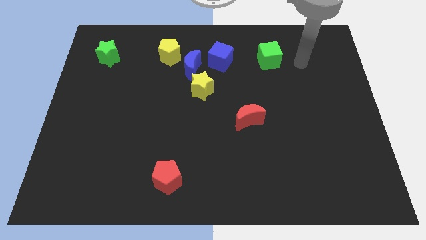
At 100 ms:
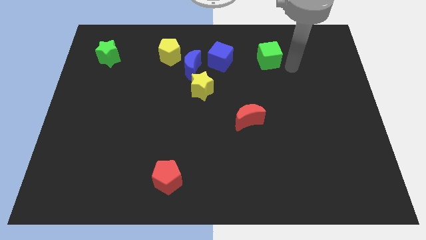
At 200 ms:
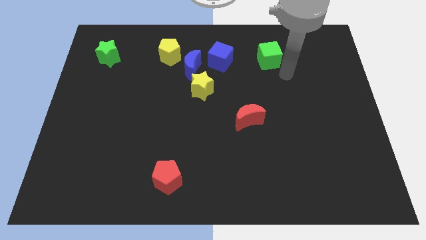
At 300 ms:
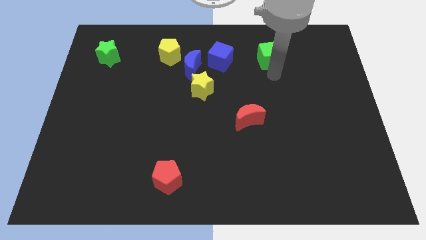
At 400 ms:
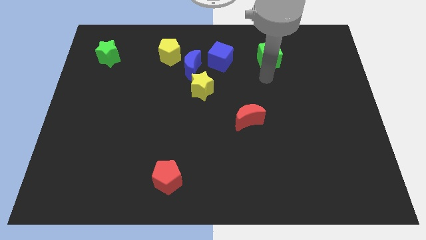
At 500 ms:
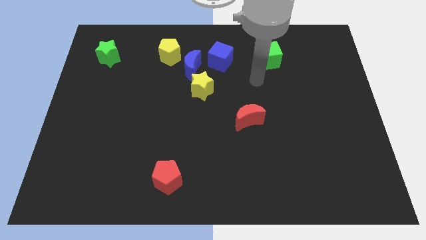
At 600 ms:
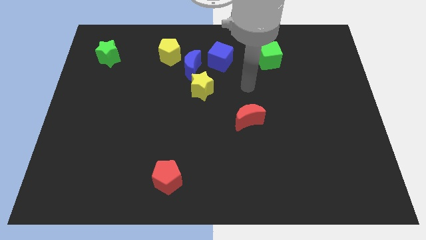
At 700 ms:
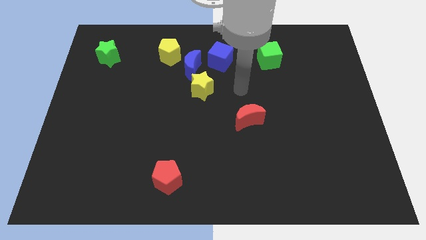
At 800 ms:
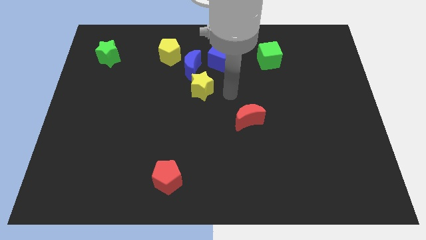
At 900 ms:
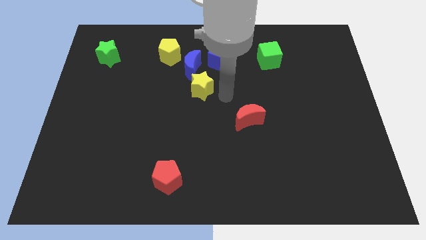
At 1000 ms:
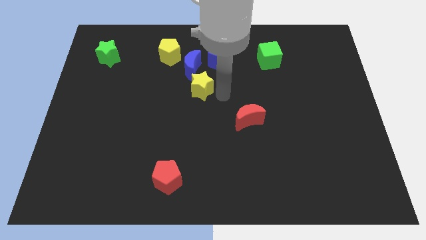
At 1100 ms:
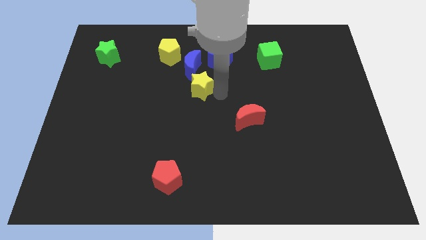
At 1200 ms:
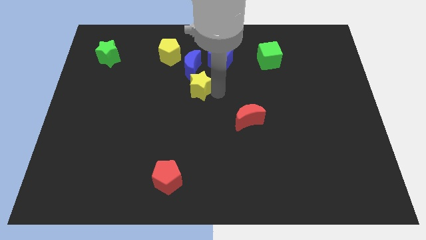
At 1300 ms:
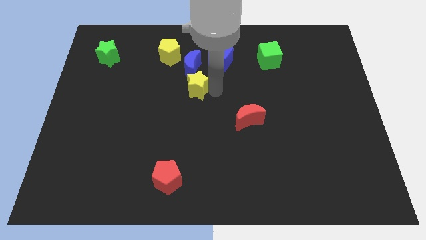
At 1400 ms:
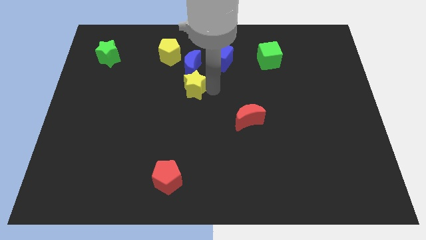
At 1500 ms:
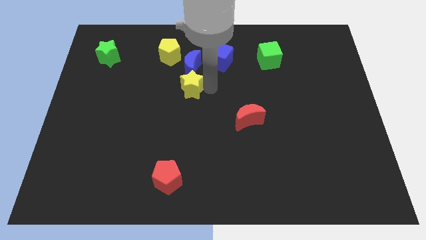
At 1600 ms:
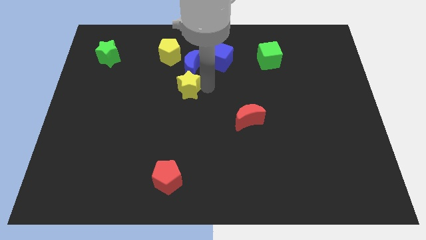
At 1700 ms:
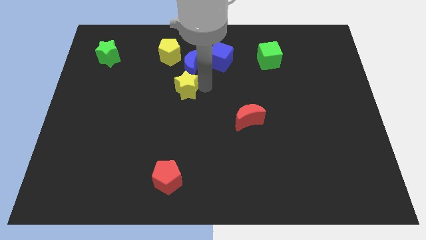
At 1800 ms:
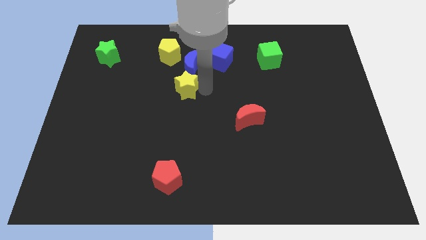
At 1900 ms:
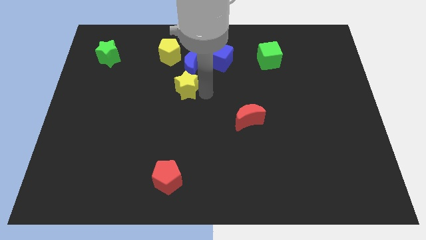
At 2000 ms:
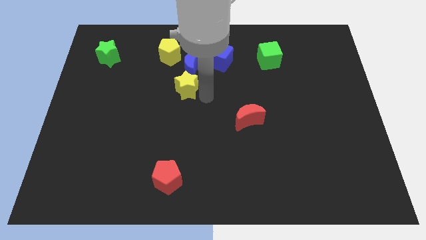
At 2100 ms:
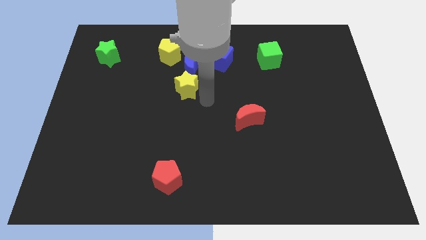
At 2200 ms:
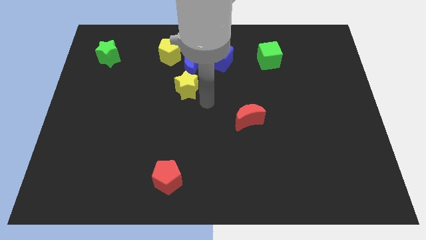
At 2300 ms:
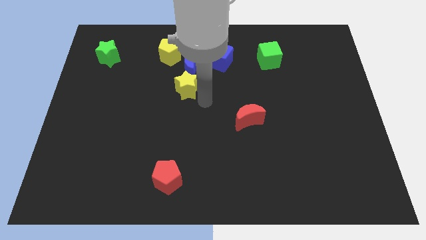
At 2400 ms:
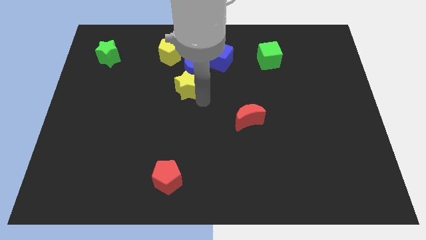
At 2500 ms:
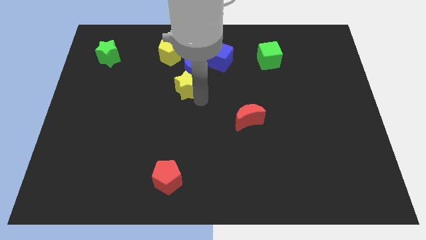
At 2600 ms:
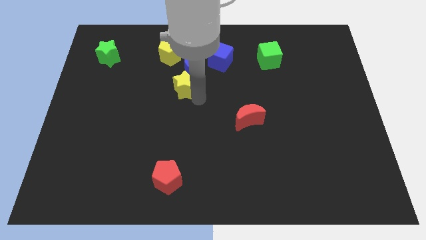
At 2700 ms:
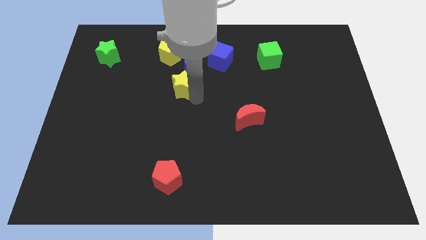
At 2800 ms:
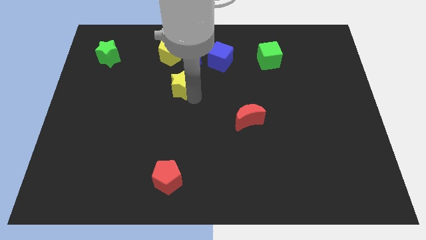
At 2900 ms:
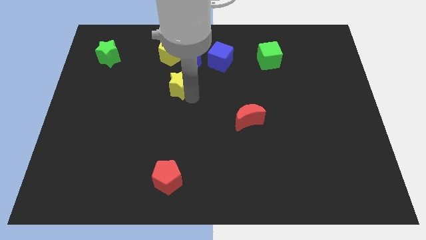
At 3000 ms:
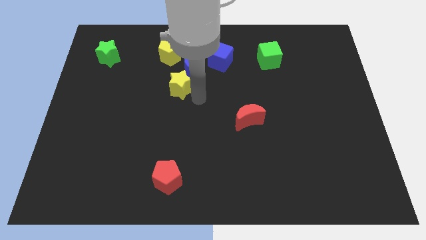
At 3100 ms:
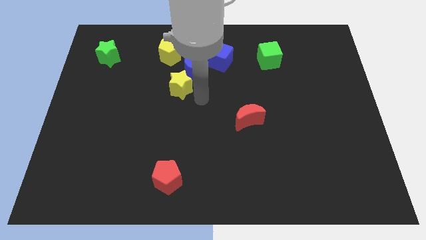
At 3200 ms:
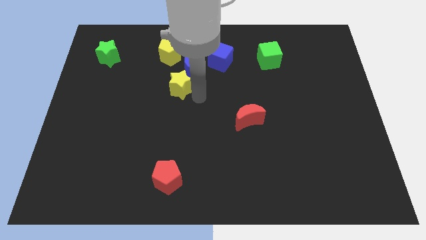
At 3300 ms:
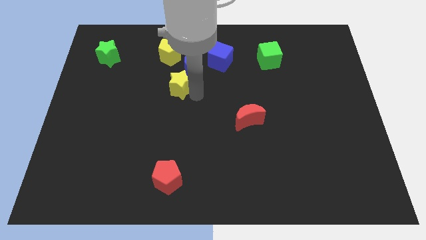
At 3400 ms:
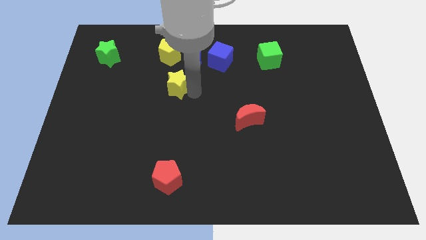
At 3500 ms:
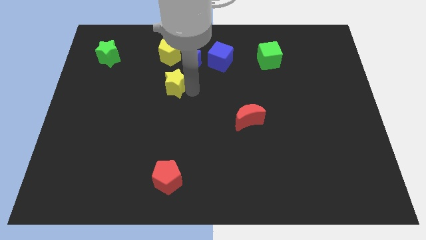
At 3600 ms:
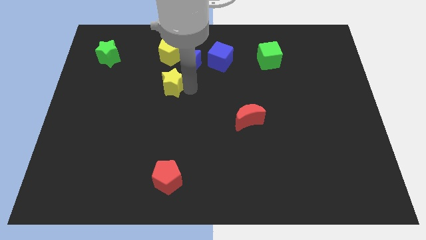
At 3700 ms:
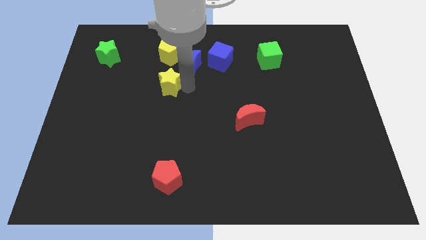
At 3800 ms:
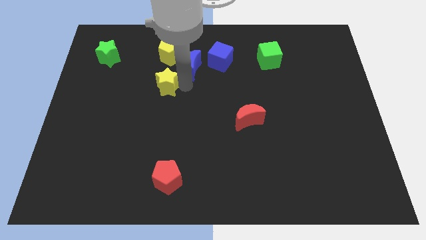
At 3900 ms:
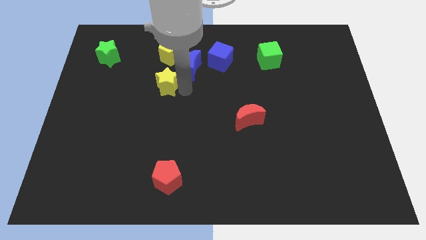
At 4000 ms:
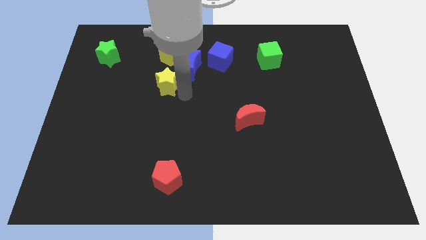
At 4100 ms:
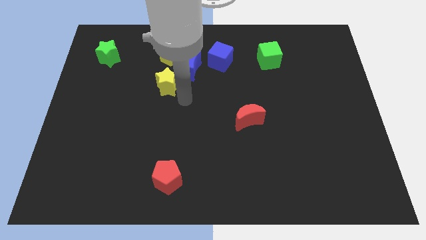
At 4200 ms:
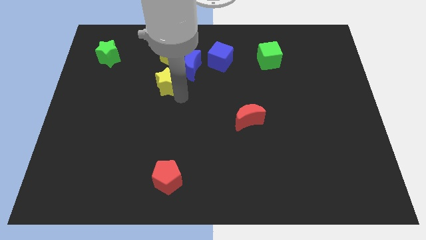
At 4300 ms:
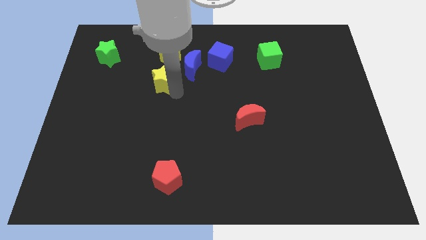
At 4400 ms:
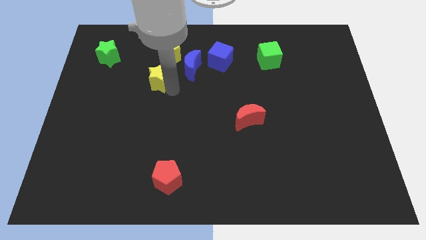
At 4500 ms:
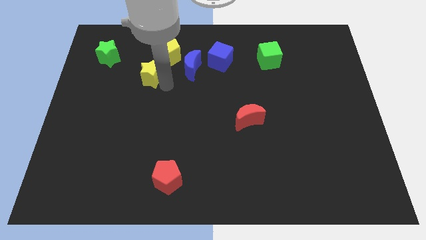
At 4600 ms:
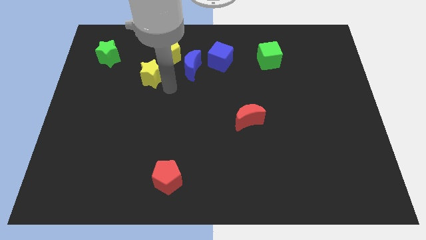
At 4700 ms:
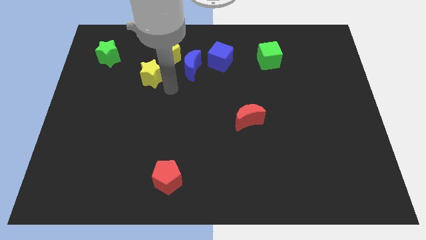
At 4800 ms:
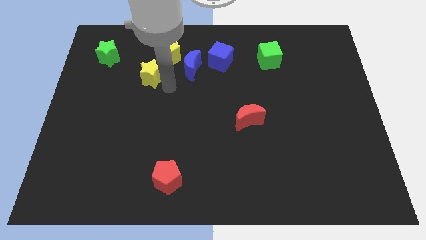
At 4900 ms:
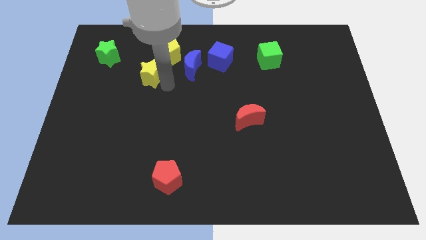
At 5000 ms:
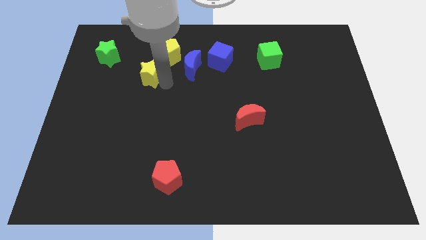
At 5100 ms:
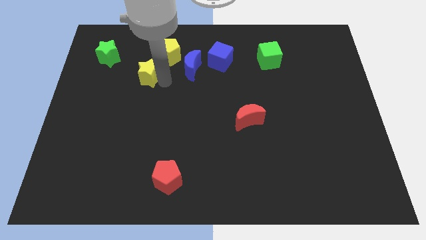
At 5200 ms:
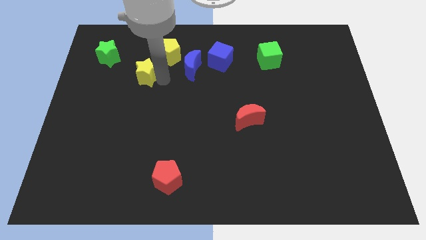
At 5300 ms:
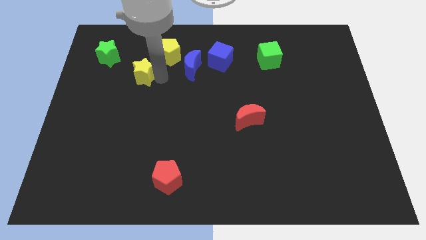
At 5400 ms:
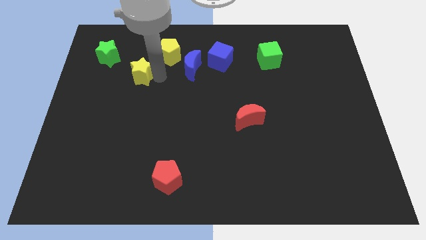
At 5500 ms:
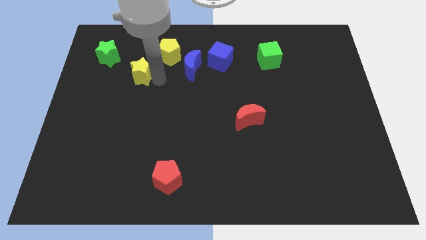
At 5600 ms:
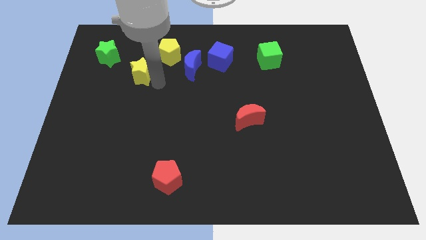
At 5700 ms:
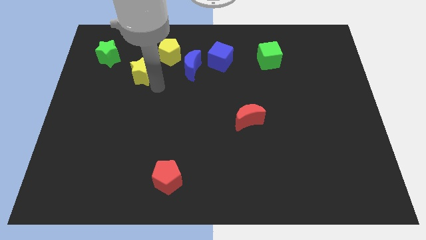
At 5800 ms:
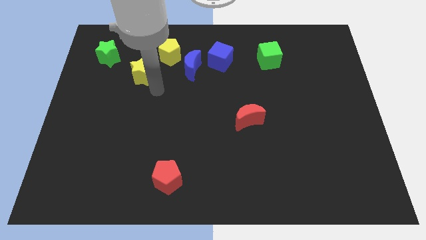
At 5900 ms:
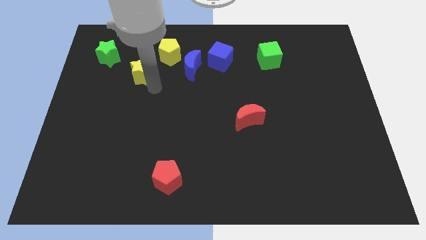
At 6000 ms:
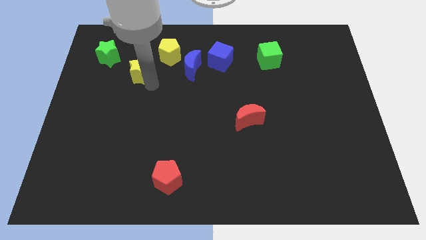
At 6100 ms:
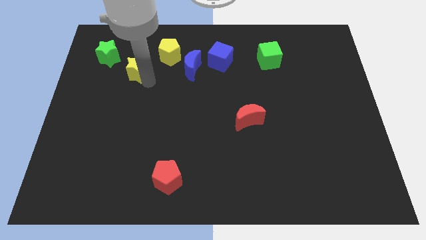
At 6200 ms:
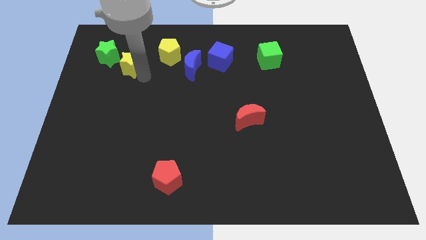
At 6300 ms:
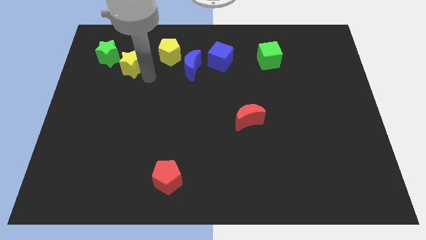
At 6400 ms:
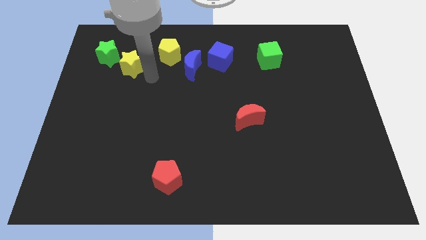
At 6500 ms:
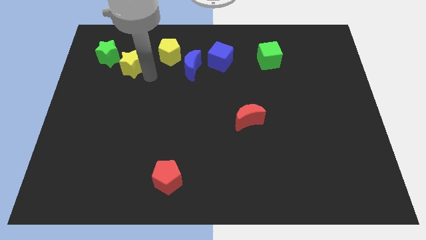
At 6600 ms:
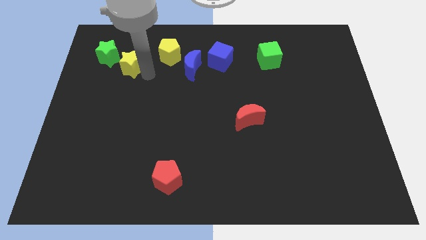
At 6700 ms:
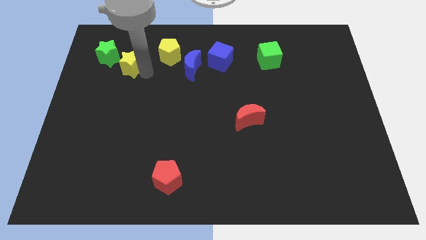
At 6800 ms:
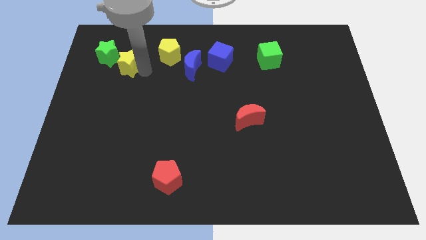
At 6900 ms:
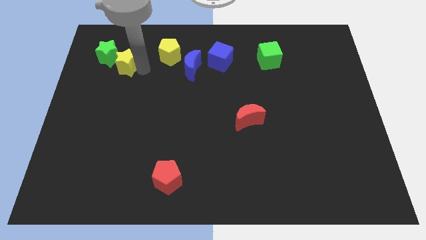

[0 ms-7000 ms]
push the yellow star close to the green star
